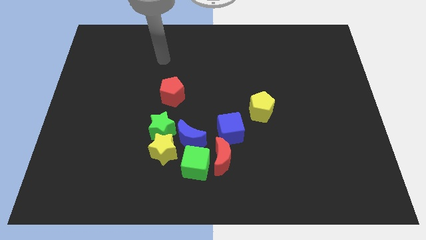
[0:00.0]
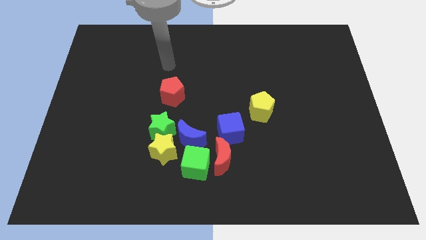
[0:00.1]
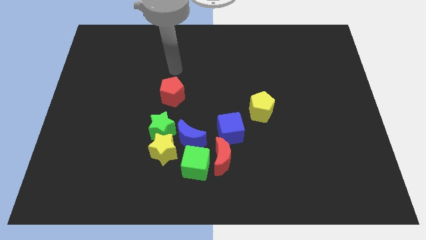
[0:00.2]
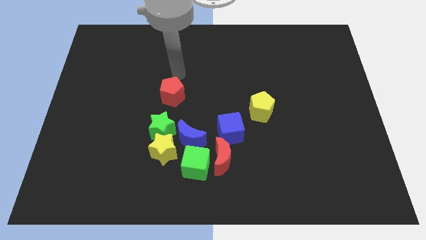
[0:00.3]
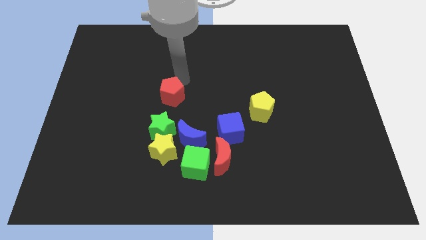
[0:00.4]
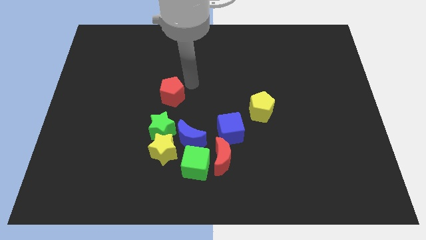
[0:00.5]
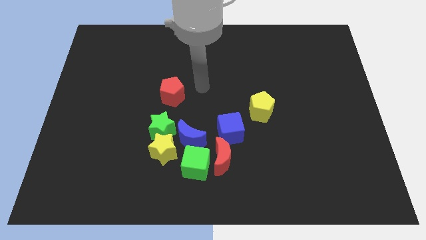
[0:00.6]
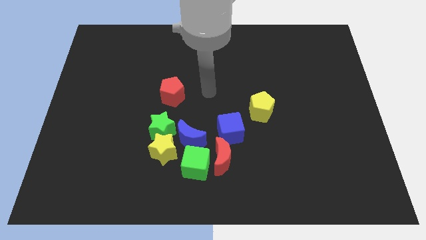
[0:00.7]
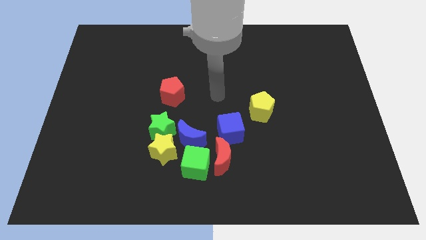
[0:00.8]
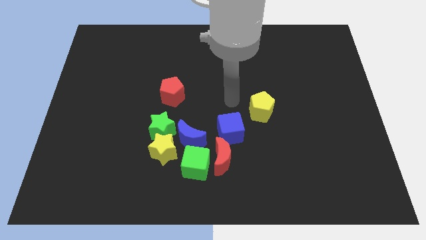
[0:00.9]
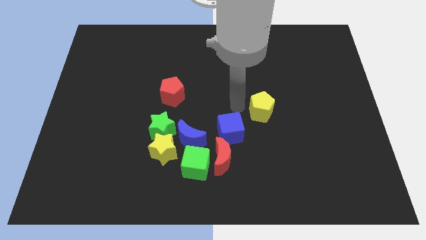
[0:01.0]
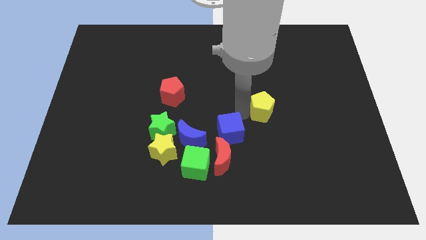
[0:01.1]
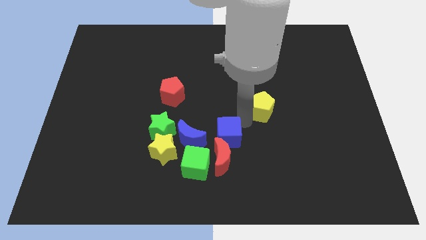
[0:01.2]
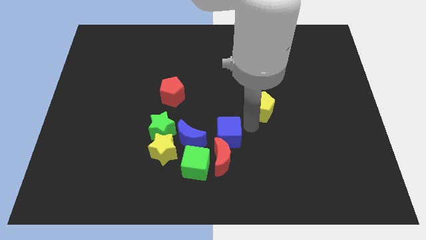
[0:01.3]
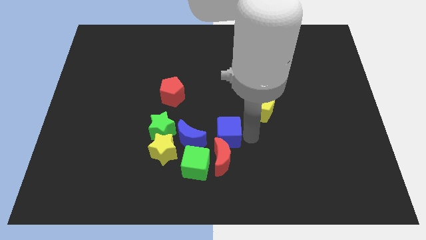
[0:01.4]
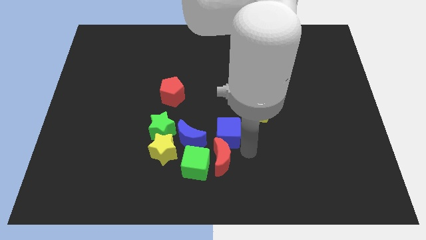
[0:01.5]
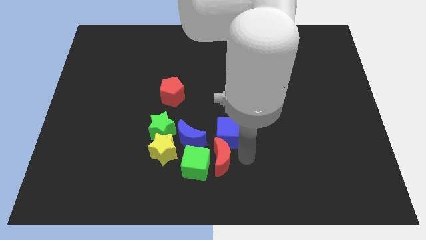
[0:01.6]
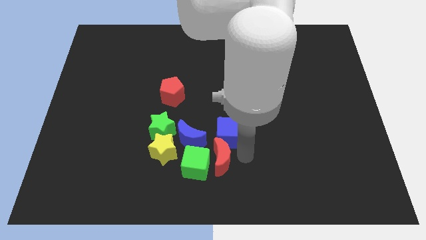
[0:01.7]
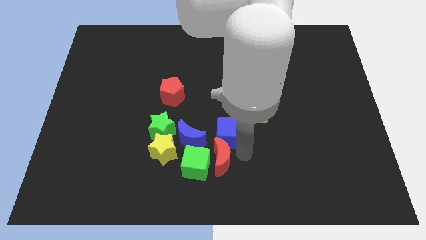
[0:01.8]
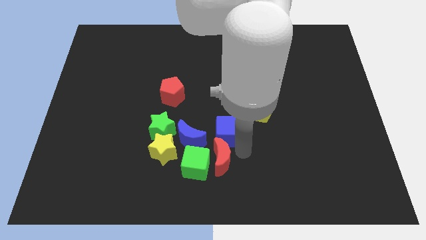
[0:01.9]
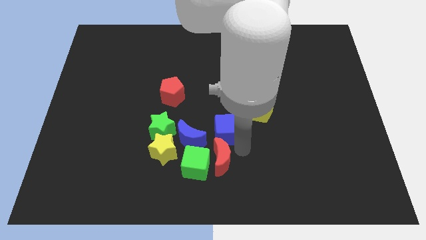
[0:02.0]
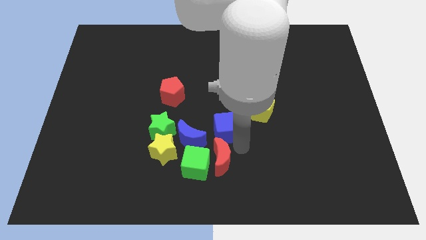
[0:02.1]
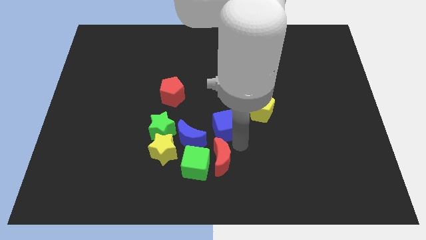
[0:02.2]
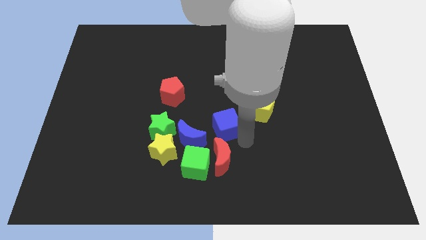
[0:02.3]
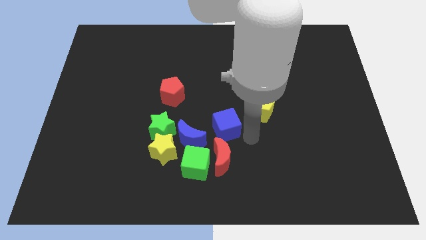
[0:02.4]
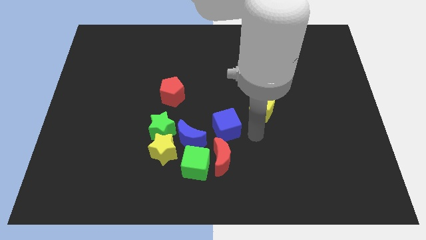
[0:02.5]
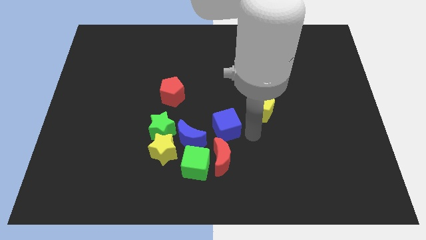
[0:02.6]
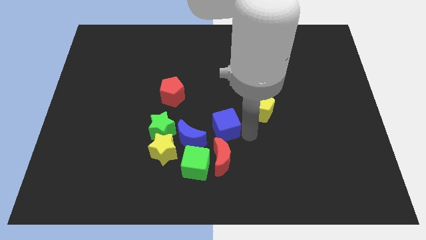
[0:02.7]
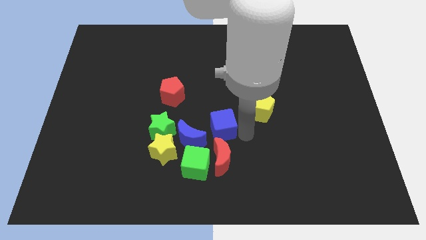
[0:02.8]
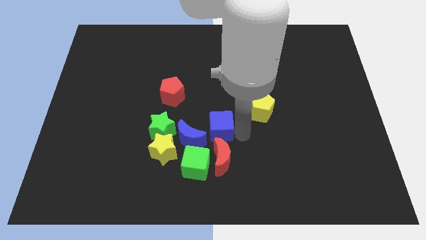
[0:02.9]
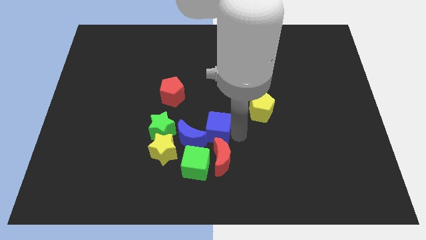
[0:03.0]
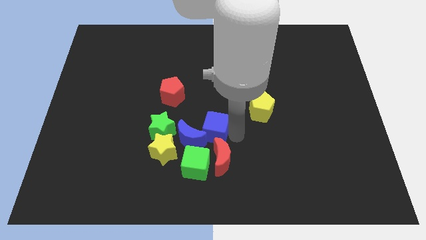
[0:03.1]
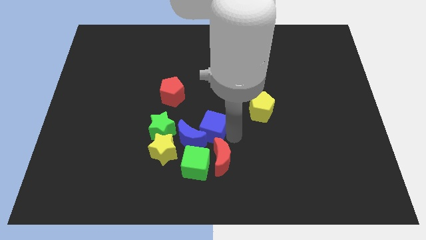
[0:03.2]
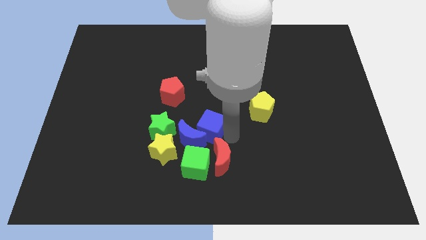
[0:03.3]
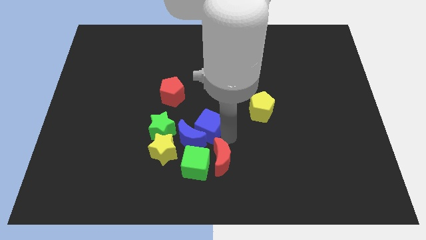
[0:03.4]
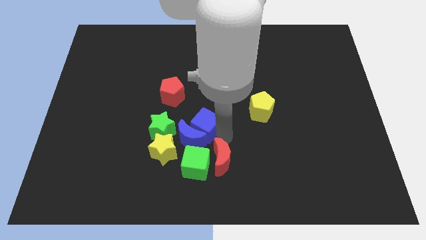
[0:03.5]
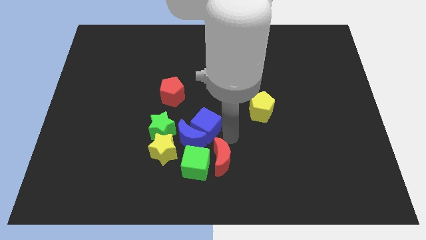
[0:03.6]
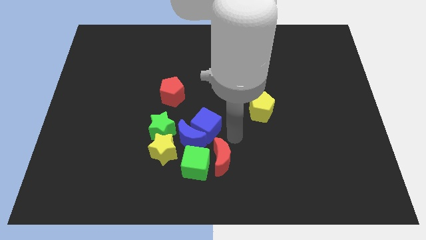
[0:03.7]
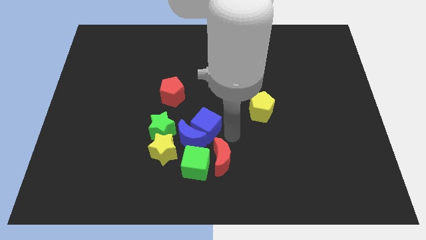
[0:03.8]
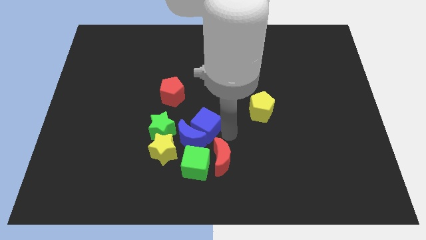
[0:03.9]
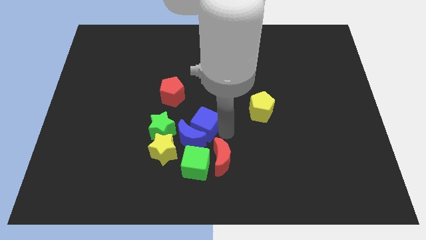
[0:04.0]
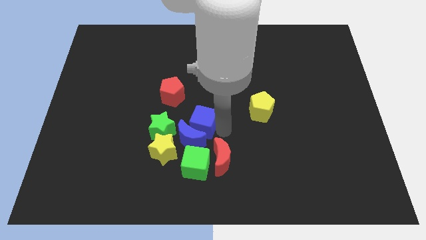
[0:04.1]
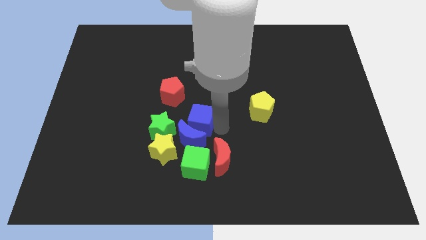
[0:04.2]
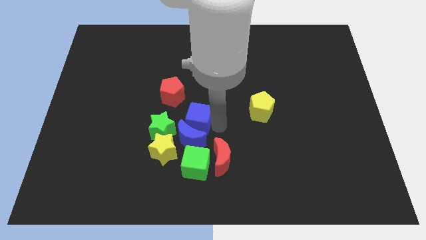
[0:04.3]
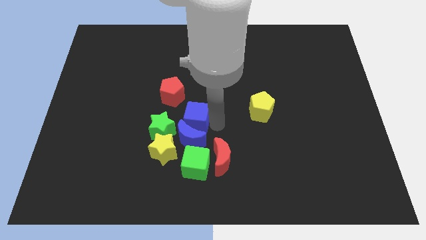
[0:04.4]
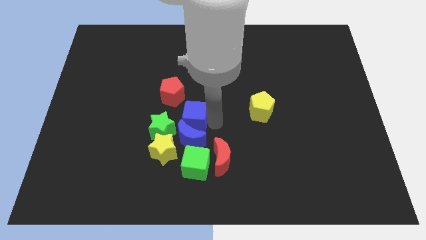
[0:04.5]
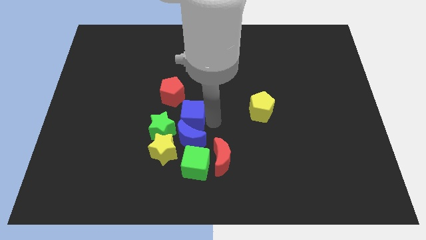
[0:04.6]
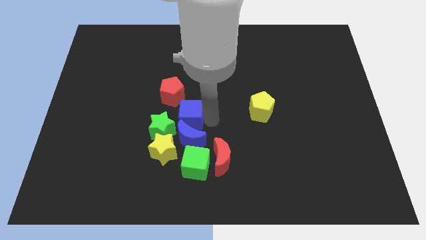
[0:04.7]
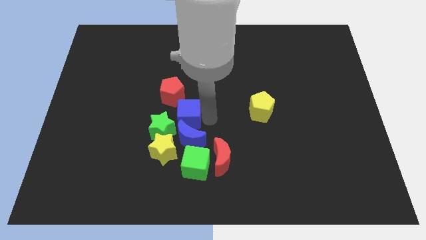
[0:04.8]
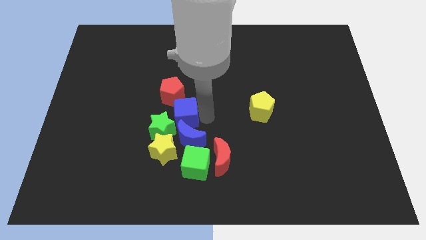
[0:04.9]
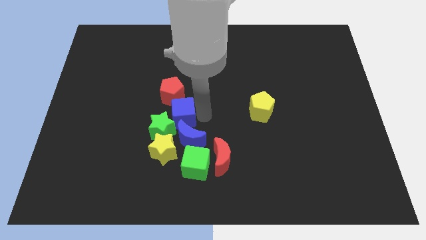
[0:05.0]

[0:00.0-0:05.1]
slide the blue cube towards the green star

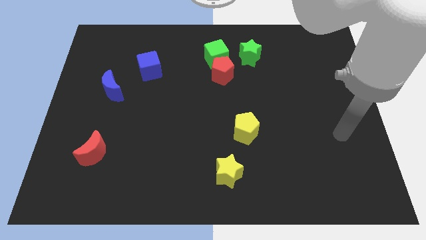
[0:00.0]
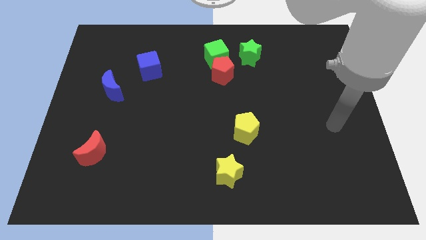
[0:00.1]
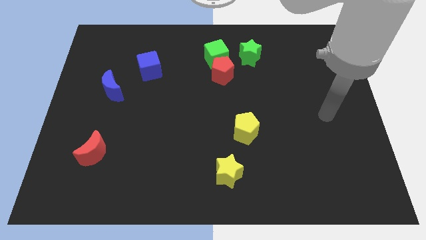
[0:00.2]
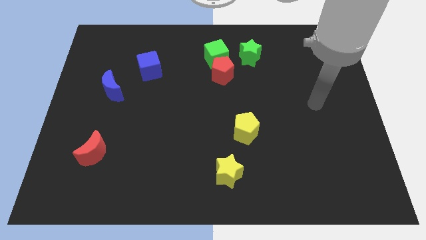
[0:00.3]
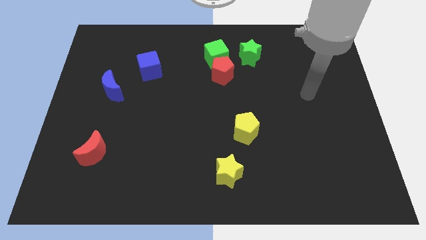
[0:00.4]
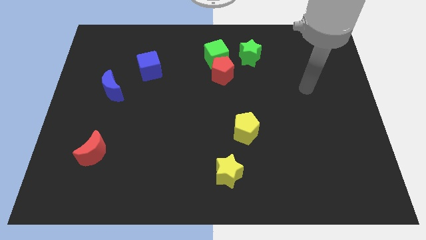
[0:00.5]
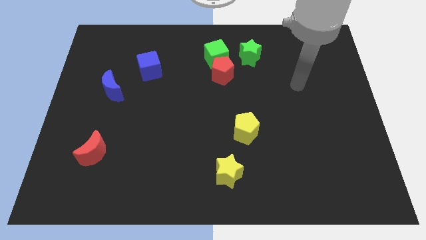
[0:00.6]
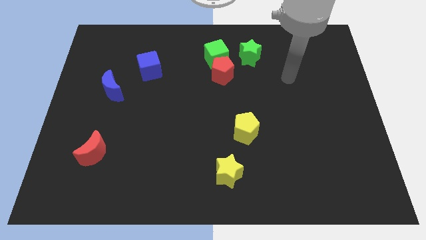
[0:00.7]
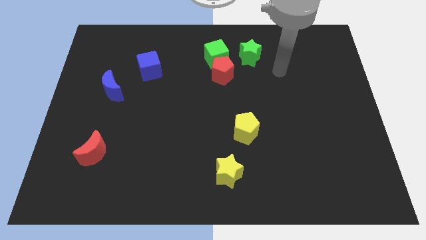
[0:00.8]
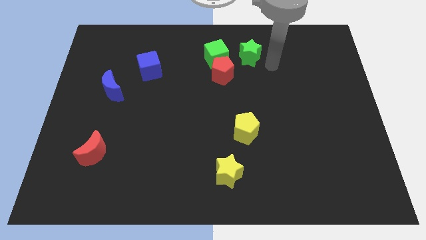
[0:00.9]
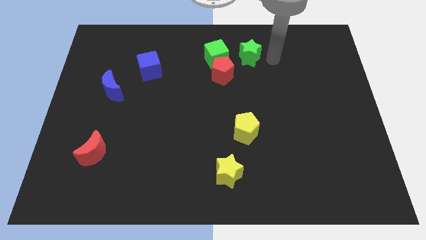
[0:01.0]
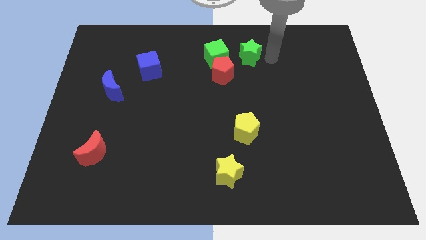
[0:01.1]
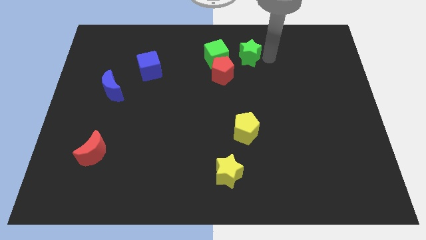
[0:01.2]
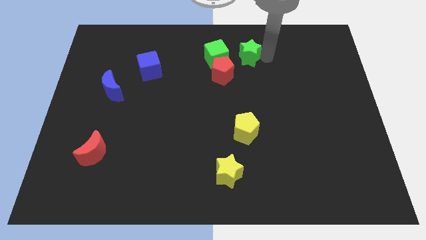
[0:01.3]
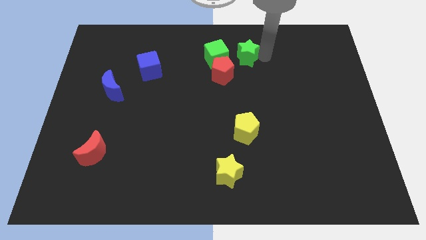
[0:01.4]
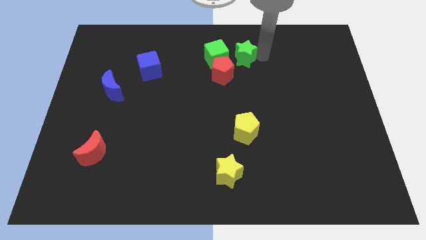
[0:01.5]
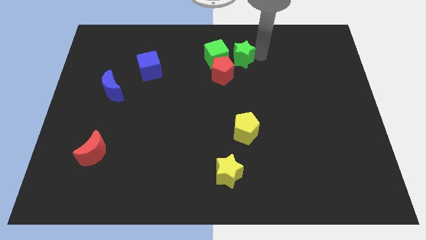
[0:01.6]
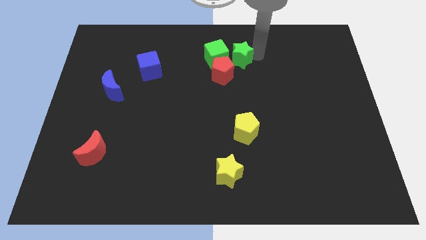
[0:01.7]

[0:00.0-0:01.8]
slide the green star close to the green cube

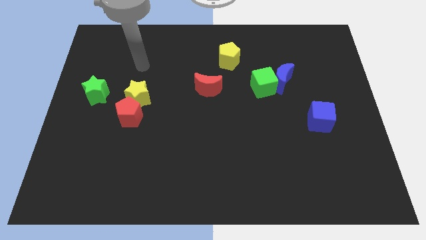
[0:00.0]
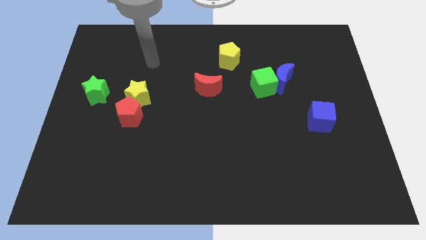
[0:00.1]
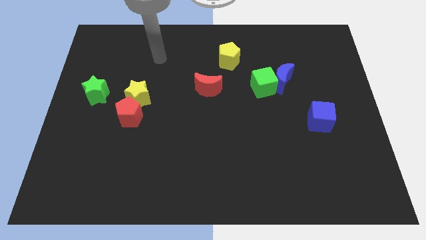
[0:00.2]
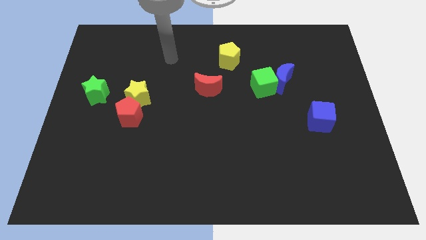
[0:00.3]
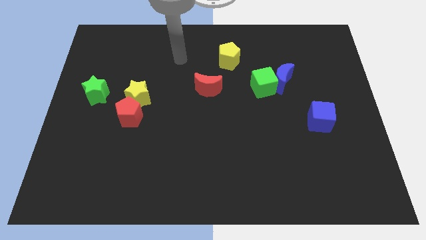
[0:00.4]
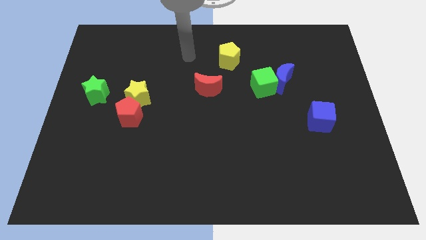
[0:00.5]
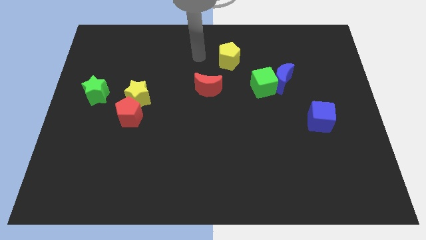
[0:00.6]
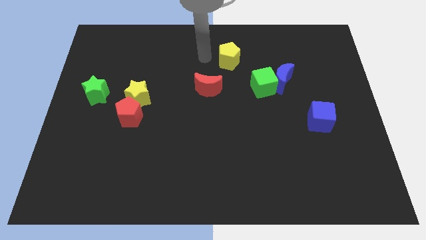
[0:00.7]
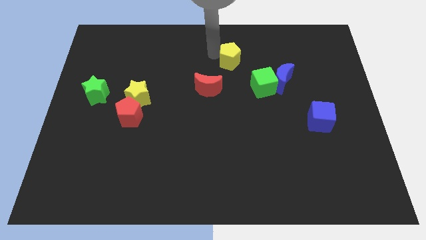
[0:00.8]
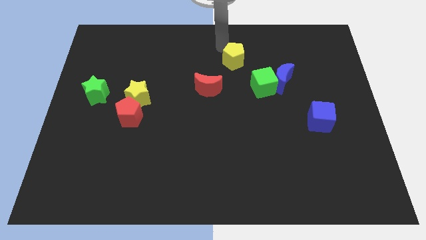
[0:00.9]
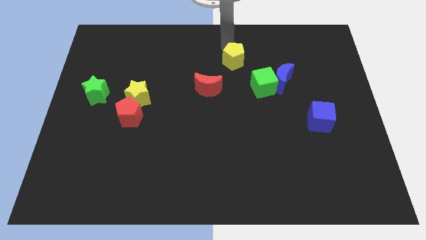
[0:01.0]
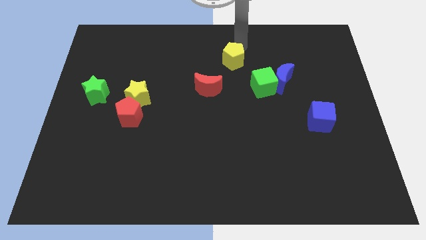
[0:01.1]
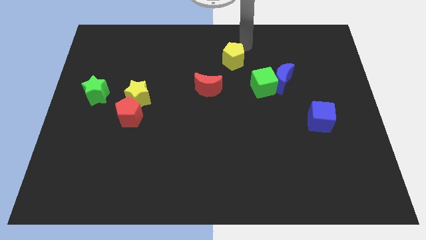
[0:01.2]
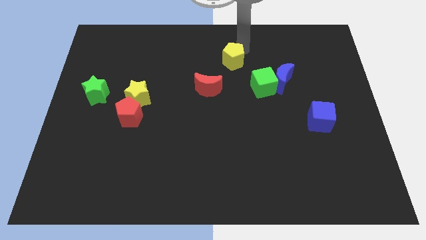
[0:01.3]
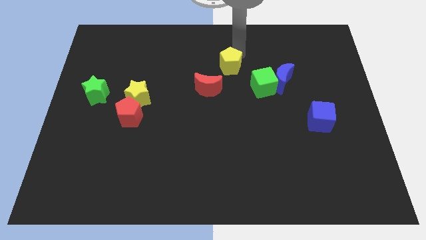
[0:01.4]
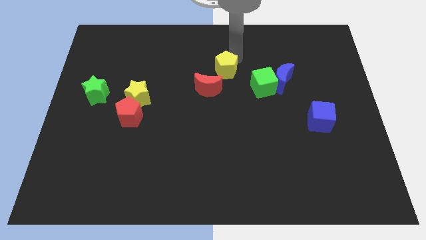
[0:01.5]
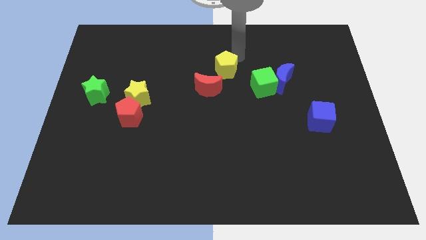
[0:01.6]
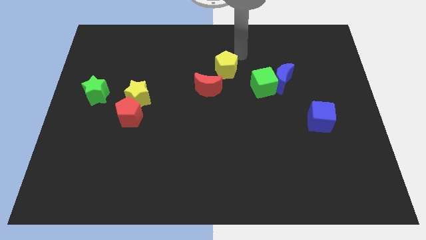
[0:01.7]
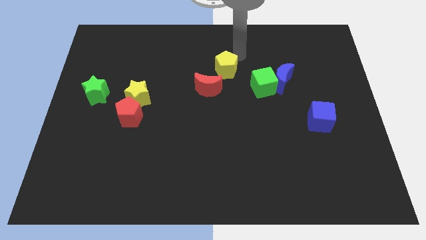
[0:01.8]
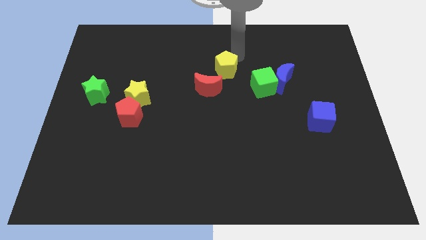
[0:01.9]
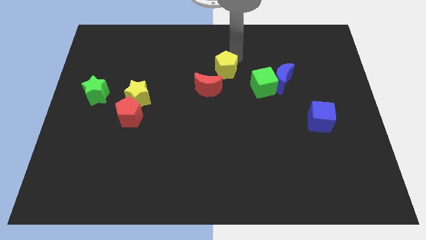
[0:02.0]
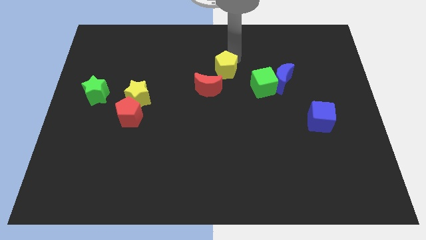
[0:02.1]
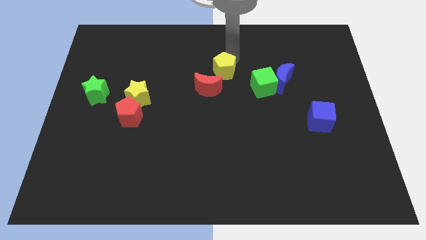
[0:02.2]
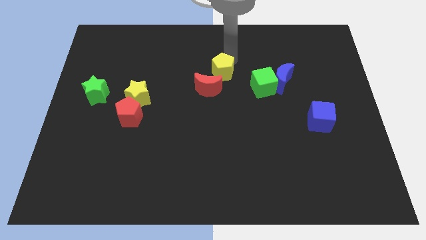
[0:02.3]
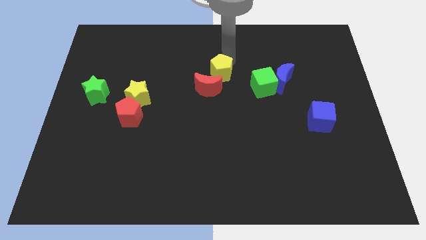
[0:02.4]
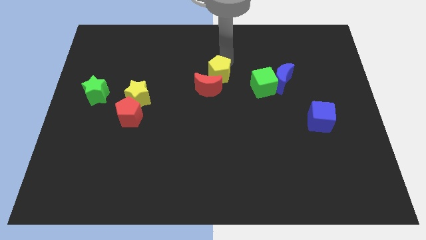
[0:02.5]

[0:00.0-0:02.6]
slide the yellow pentagon close to the red moon
